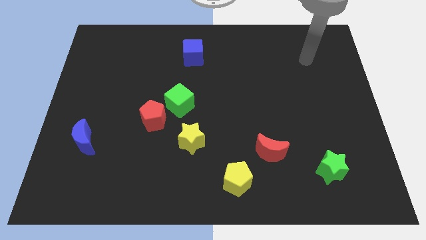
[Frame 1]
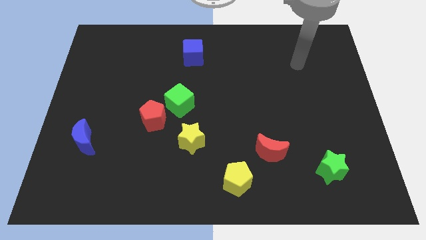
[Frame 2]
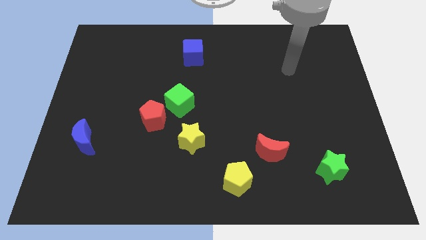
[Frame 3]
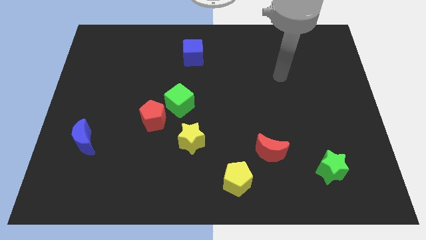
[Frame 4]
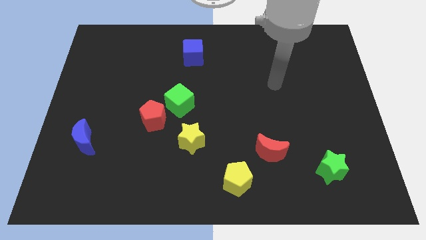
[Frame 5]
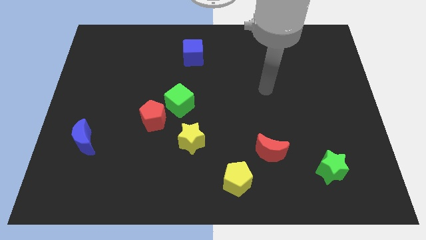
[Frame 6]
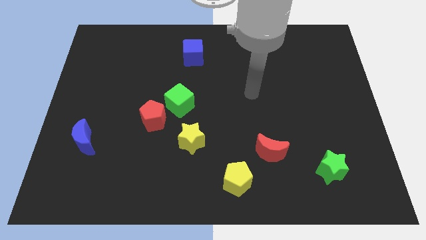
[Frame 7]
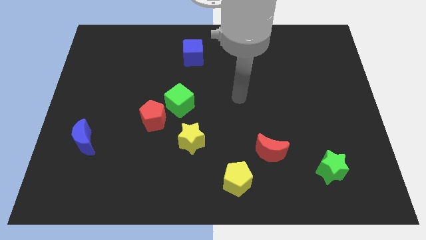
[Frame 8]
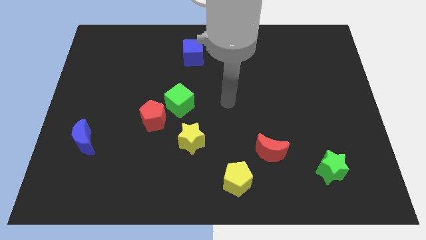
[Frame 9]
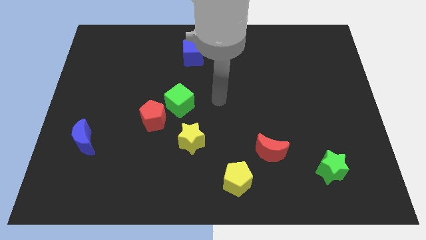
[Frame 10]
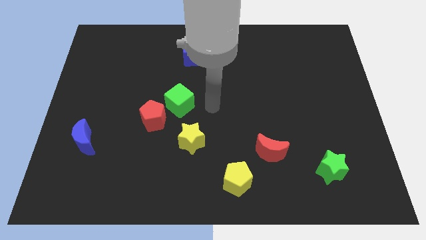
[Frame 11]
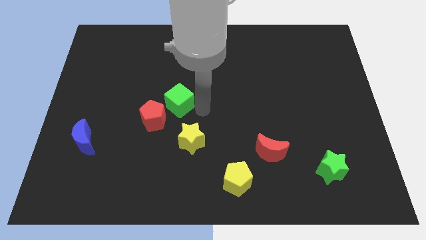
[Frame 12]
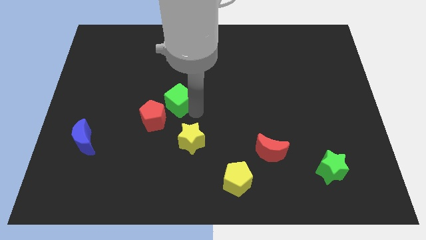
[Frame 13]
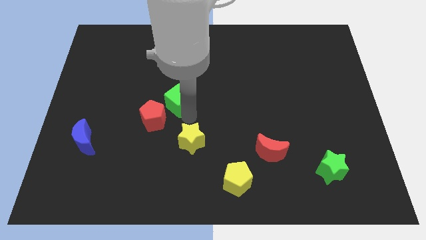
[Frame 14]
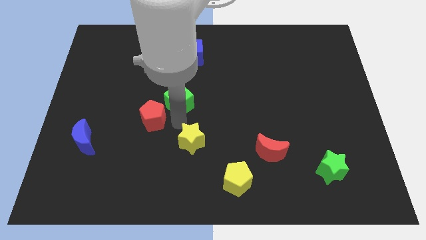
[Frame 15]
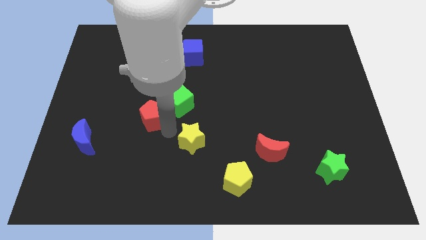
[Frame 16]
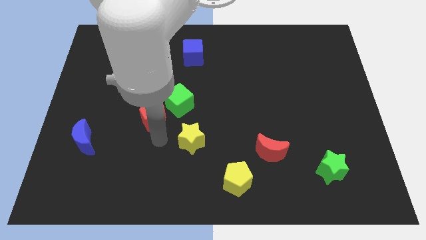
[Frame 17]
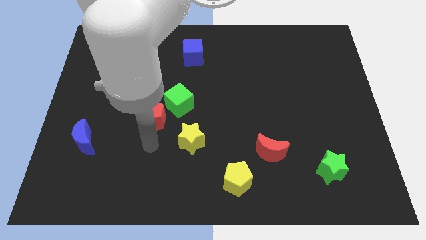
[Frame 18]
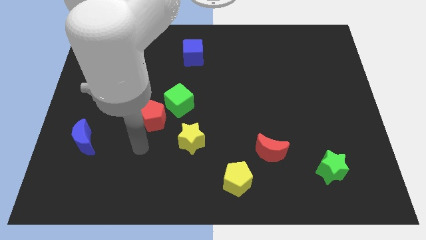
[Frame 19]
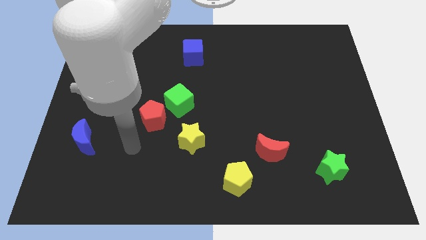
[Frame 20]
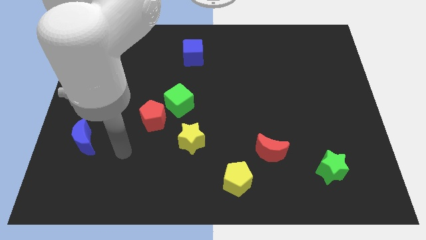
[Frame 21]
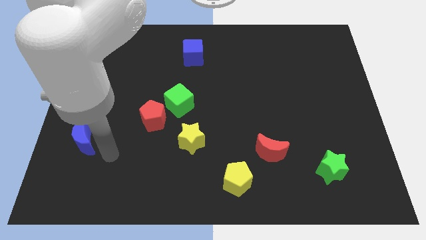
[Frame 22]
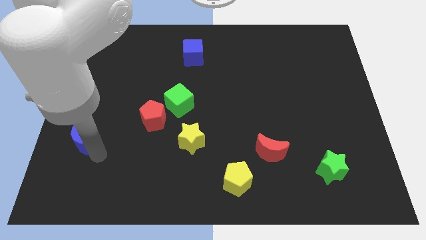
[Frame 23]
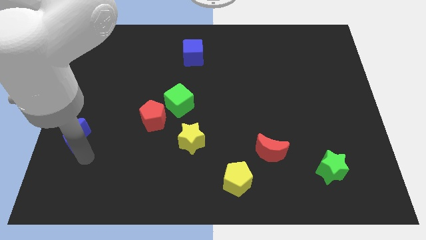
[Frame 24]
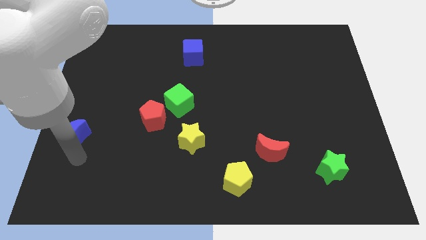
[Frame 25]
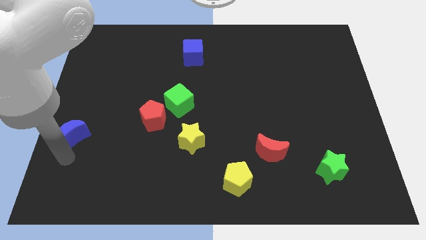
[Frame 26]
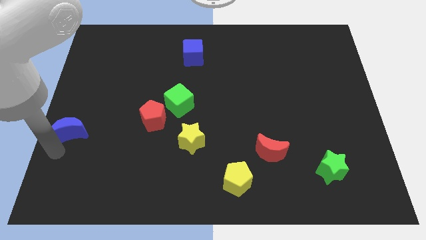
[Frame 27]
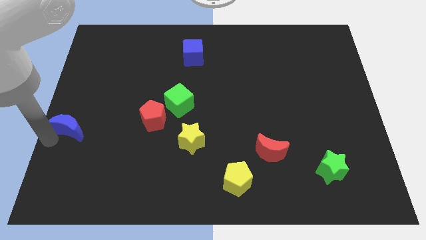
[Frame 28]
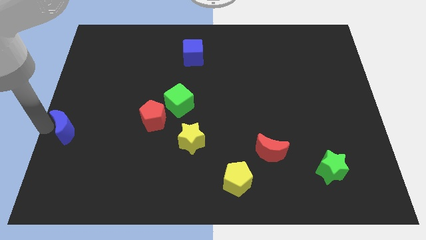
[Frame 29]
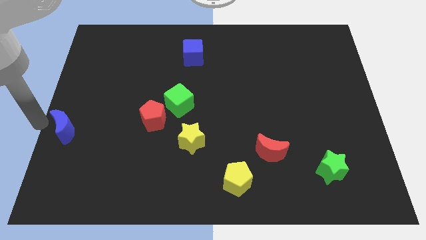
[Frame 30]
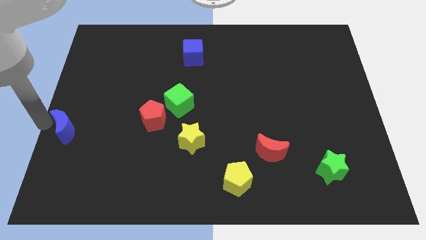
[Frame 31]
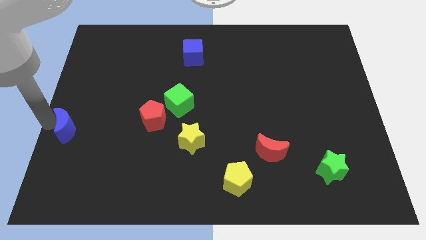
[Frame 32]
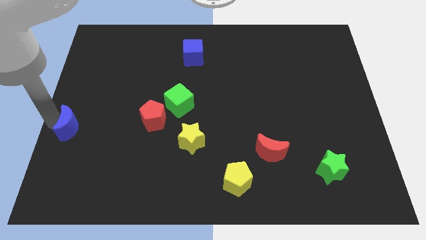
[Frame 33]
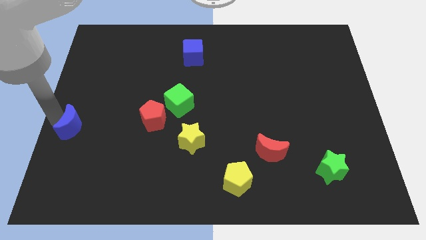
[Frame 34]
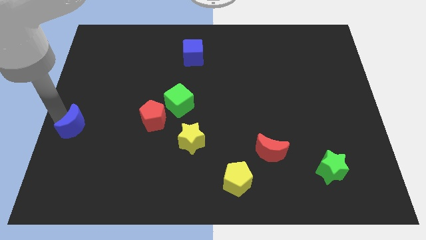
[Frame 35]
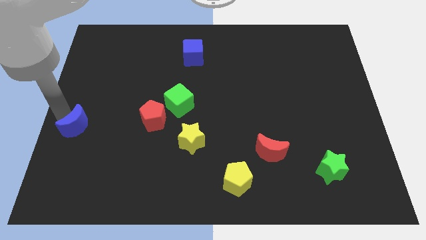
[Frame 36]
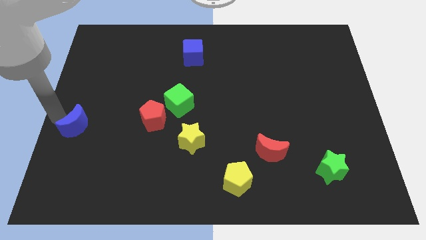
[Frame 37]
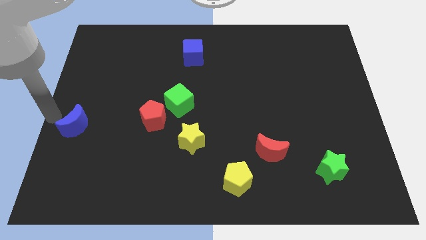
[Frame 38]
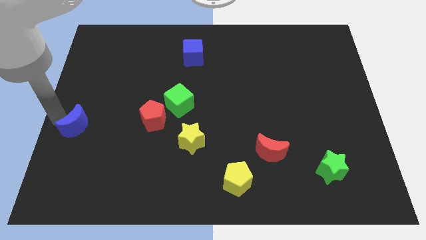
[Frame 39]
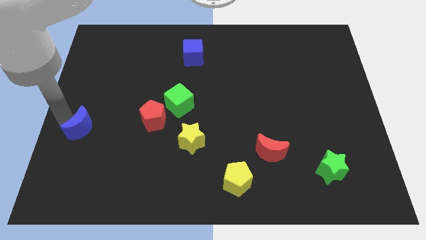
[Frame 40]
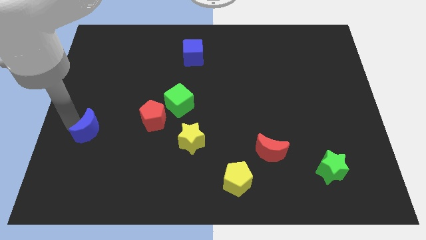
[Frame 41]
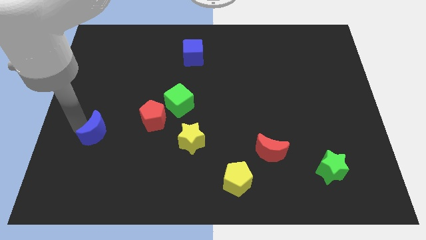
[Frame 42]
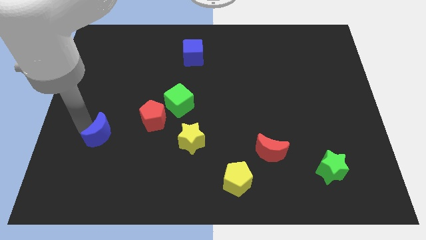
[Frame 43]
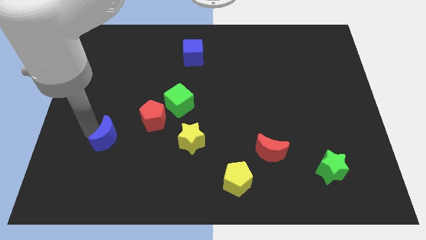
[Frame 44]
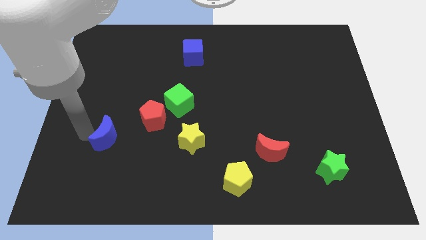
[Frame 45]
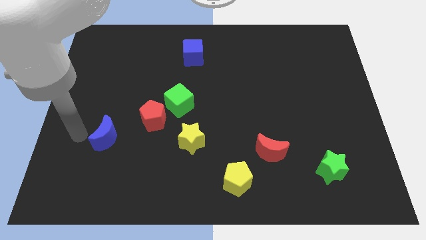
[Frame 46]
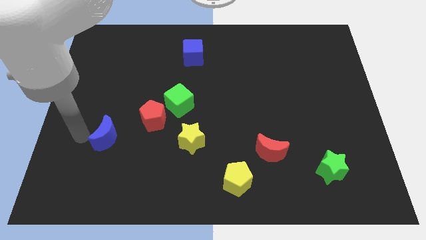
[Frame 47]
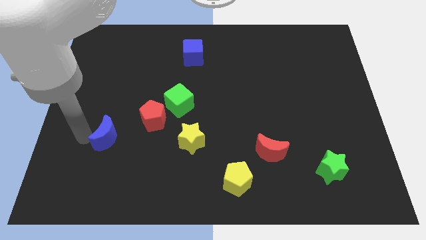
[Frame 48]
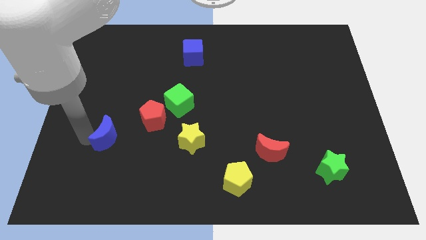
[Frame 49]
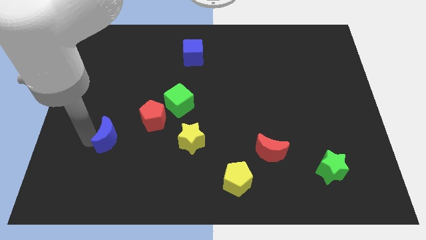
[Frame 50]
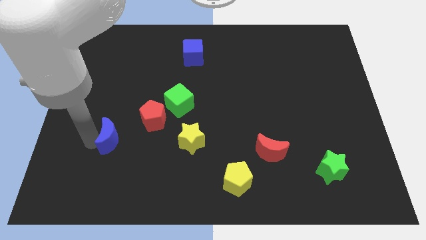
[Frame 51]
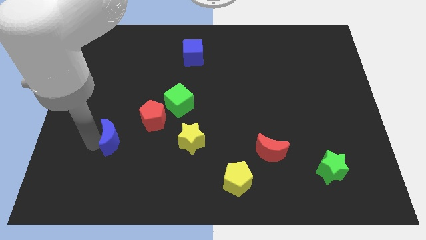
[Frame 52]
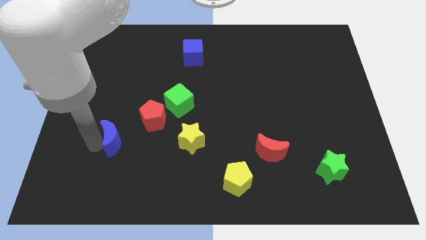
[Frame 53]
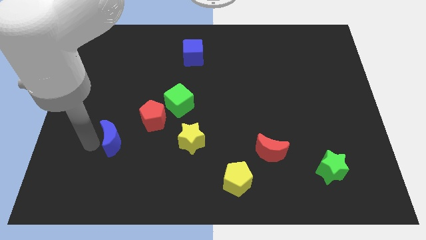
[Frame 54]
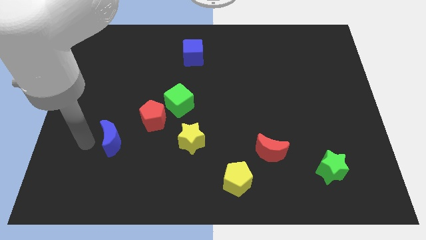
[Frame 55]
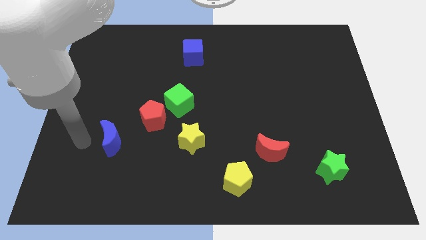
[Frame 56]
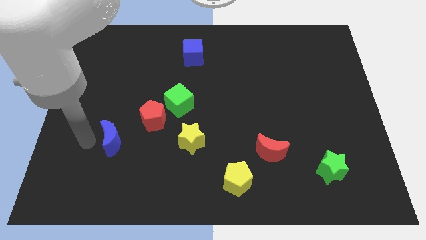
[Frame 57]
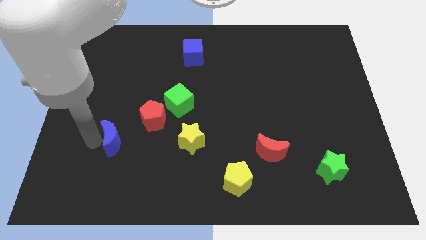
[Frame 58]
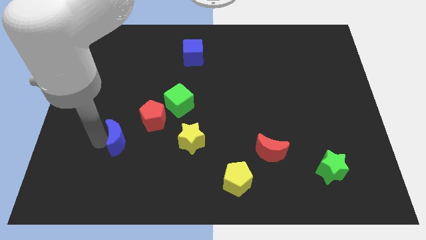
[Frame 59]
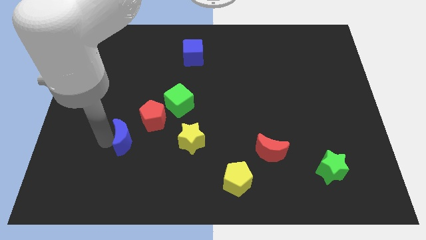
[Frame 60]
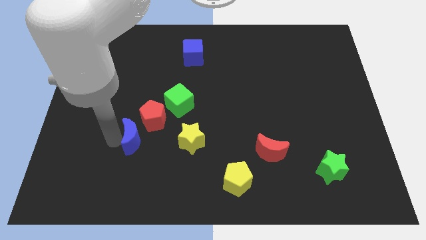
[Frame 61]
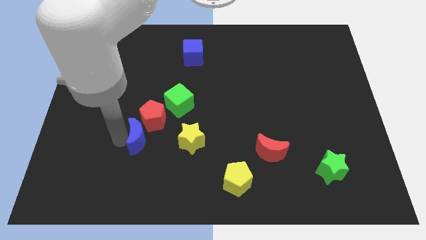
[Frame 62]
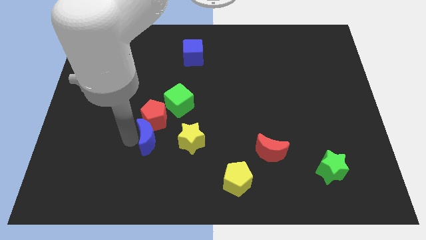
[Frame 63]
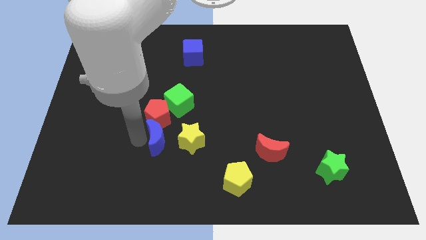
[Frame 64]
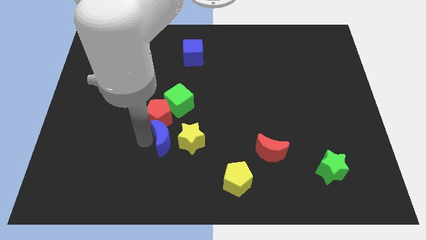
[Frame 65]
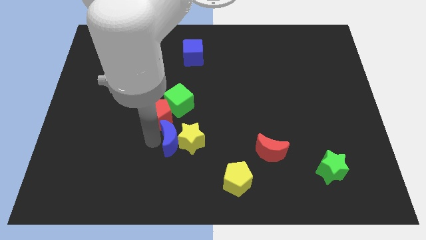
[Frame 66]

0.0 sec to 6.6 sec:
push the blue moon towards the yellow star

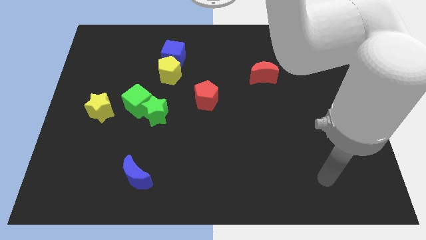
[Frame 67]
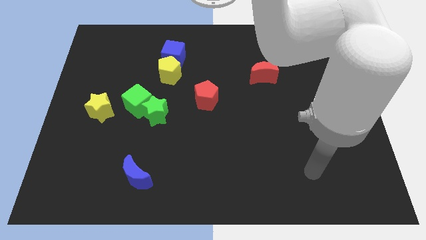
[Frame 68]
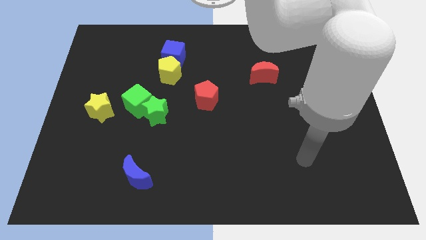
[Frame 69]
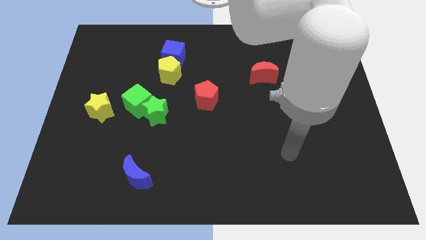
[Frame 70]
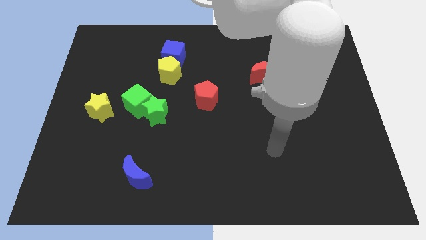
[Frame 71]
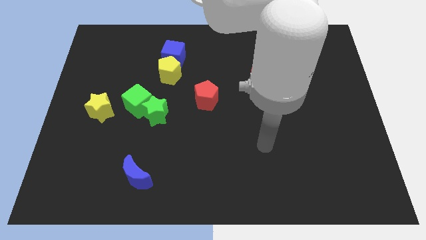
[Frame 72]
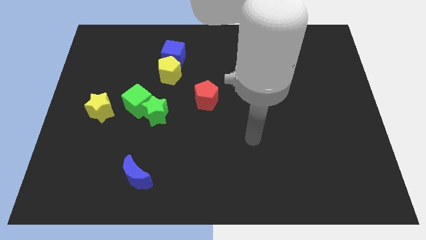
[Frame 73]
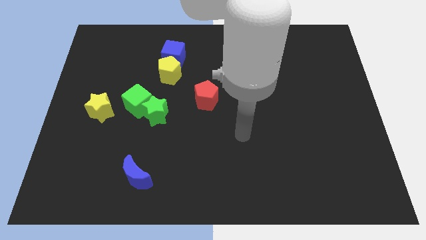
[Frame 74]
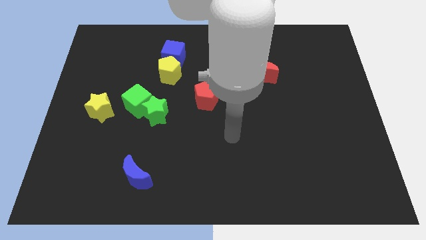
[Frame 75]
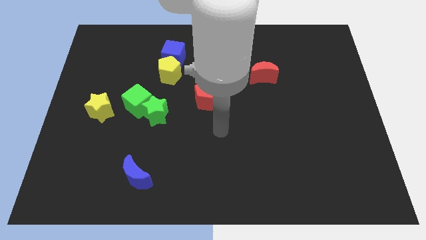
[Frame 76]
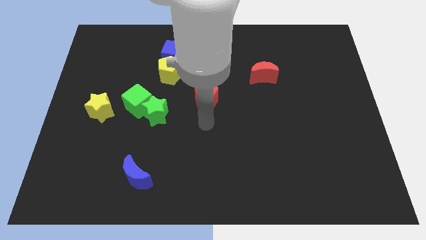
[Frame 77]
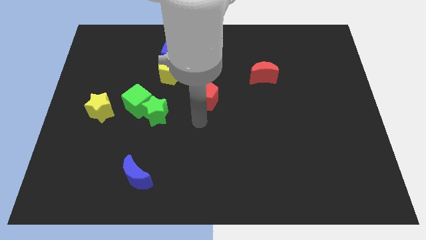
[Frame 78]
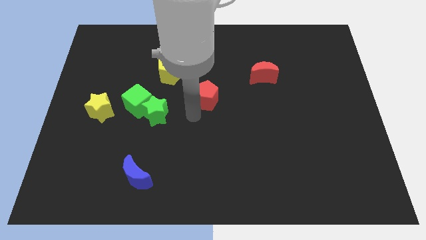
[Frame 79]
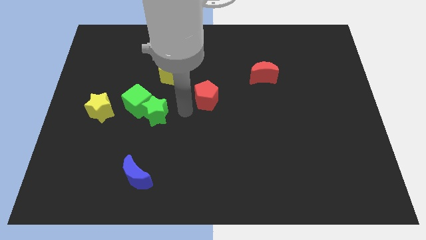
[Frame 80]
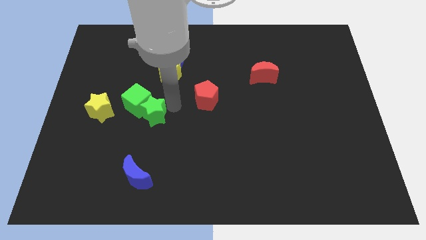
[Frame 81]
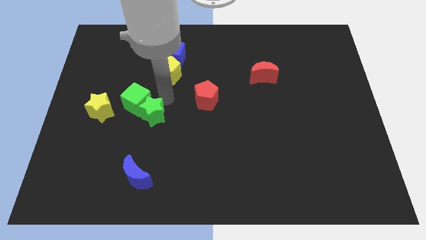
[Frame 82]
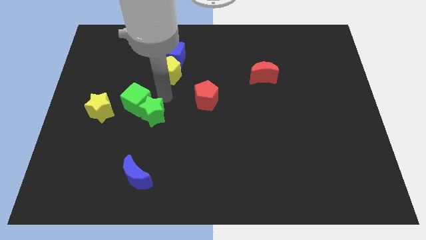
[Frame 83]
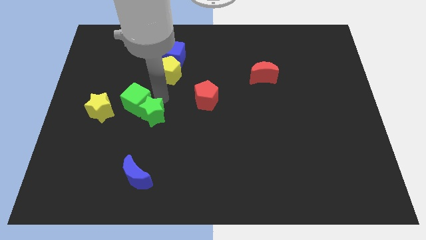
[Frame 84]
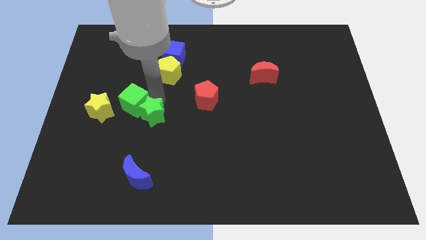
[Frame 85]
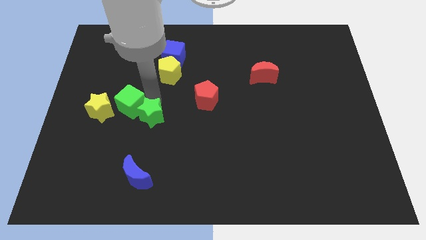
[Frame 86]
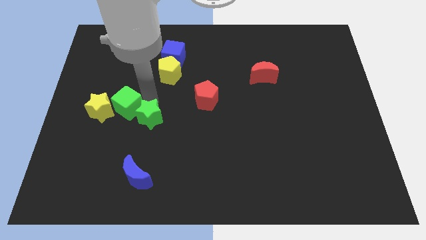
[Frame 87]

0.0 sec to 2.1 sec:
put the green cube next to the yellow star
